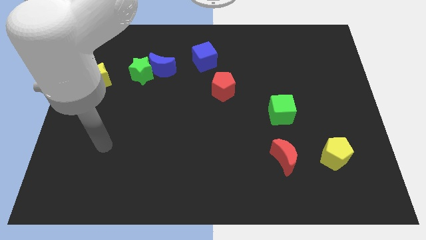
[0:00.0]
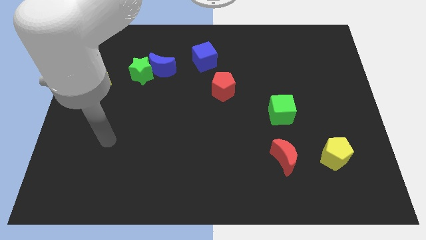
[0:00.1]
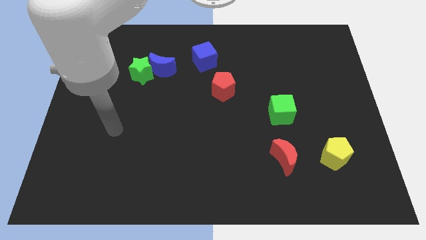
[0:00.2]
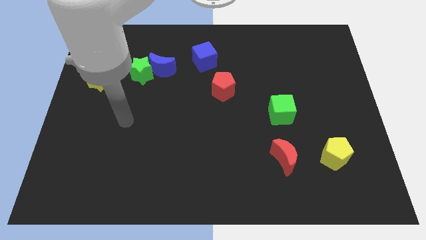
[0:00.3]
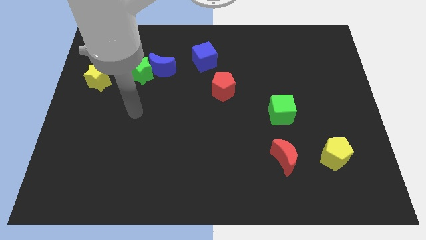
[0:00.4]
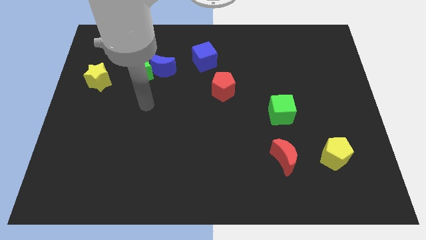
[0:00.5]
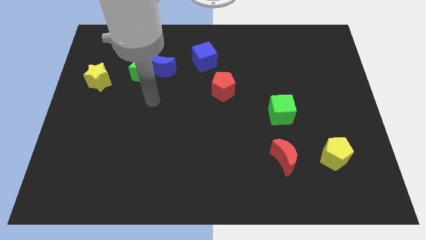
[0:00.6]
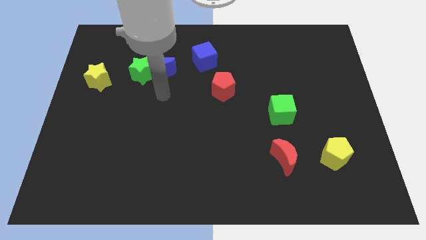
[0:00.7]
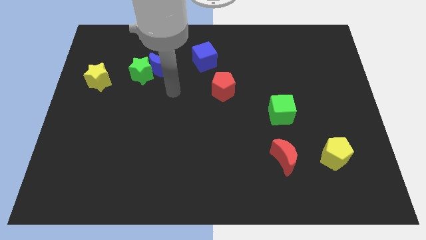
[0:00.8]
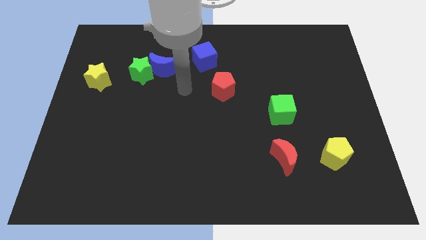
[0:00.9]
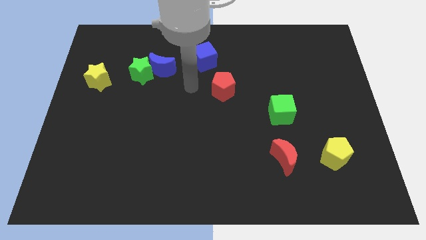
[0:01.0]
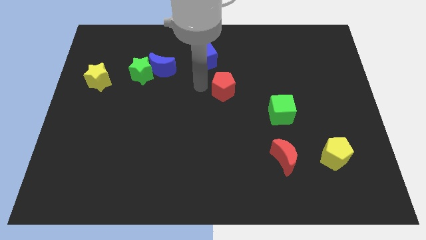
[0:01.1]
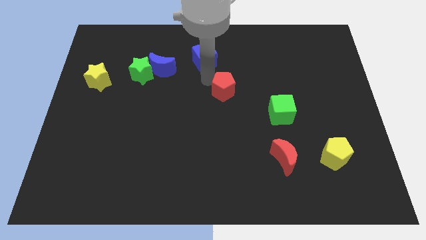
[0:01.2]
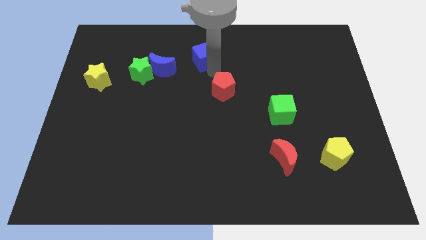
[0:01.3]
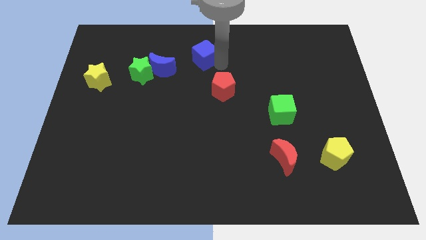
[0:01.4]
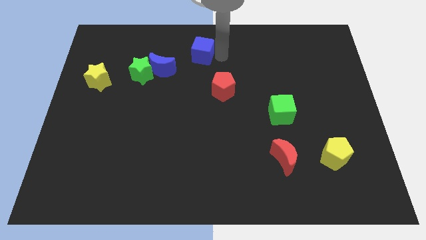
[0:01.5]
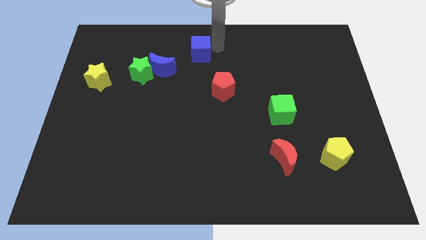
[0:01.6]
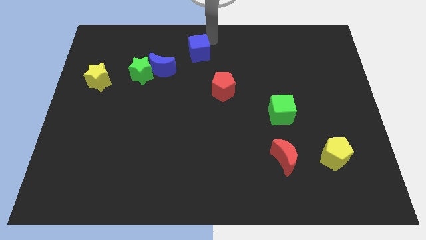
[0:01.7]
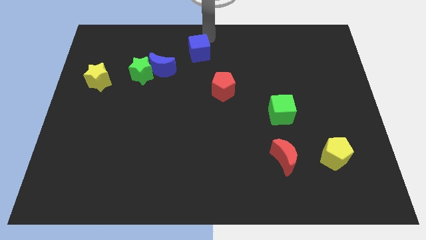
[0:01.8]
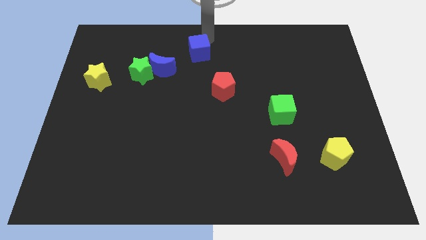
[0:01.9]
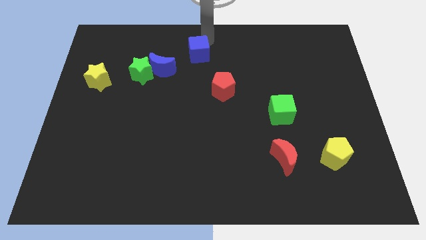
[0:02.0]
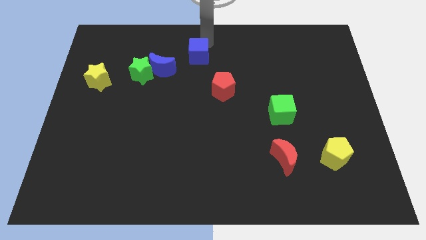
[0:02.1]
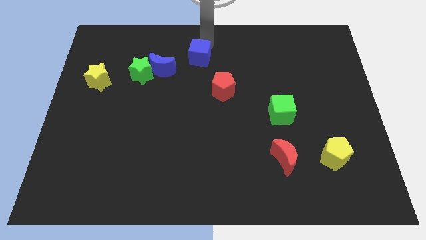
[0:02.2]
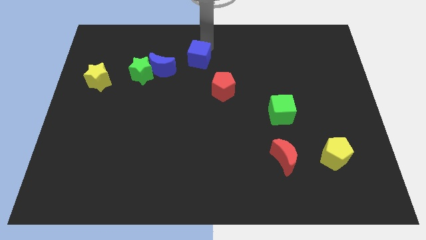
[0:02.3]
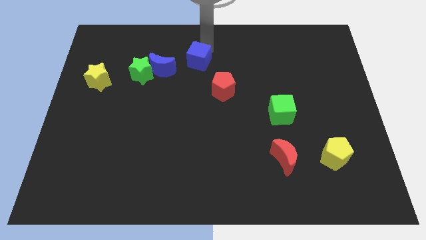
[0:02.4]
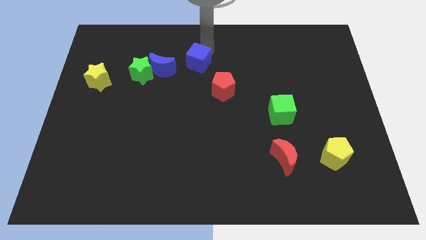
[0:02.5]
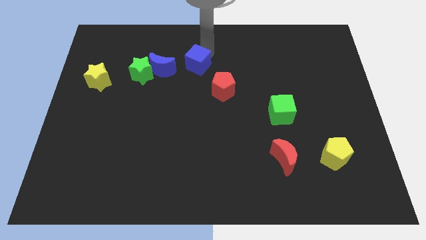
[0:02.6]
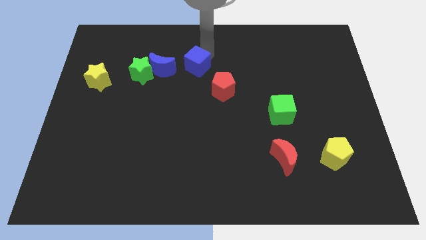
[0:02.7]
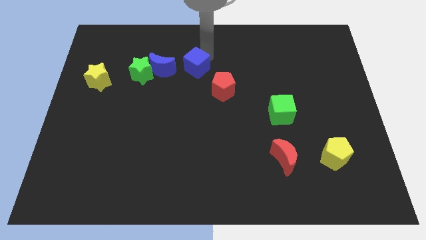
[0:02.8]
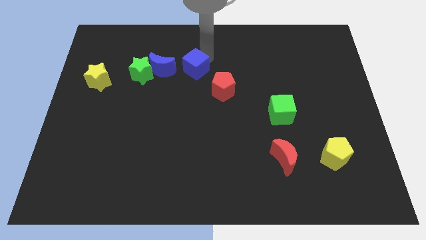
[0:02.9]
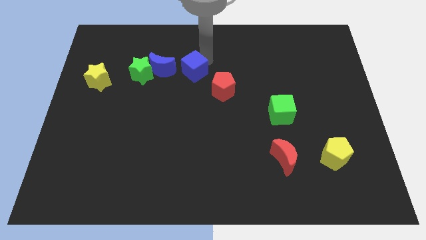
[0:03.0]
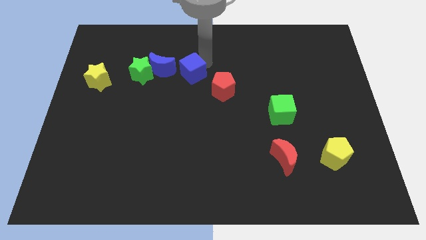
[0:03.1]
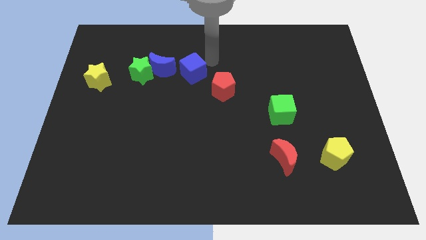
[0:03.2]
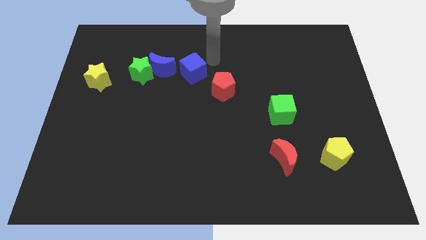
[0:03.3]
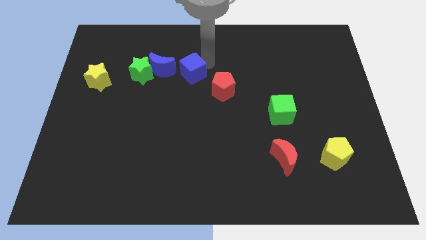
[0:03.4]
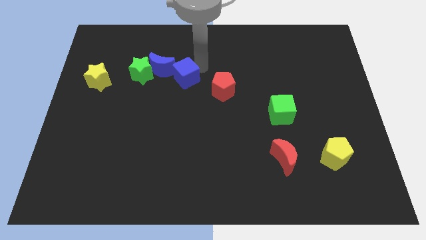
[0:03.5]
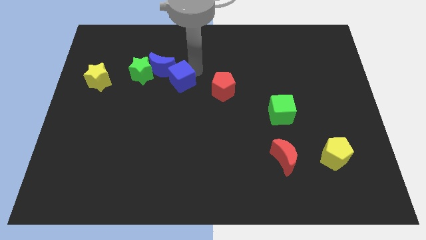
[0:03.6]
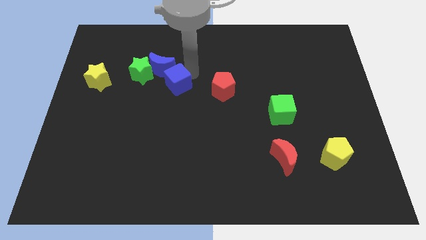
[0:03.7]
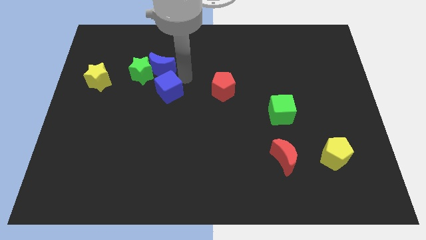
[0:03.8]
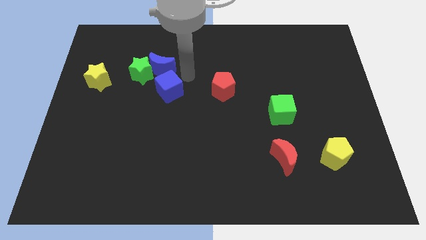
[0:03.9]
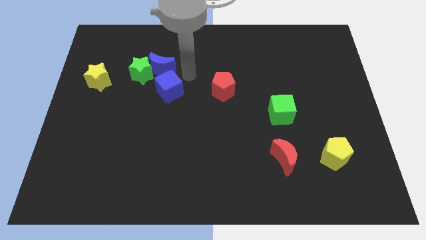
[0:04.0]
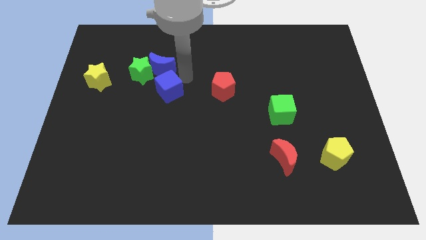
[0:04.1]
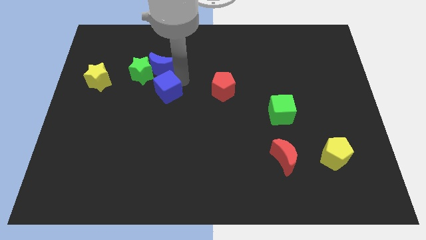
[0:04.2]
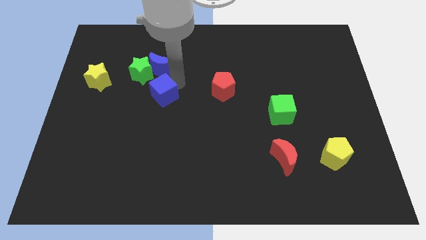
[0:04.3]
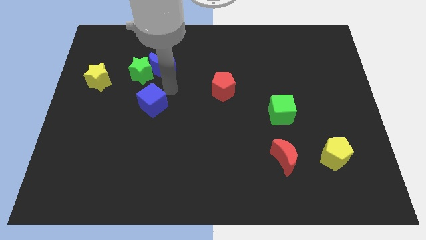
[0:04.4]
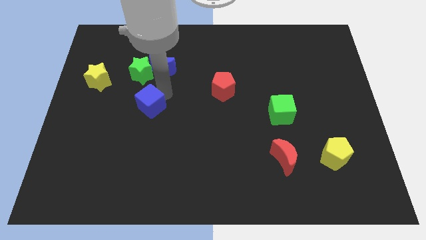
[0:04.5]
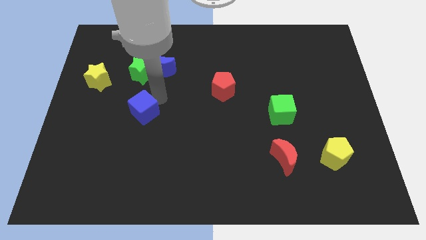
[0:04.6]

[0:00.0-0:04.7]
slide the blue cube down and left

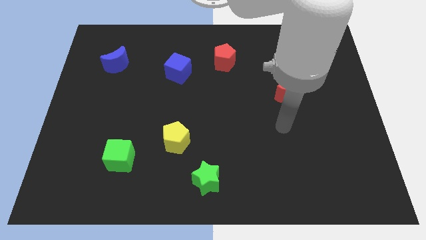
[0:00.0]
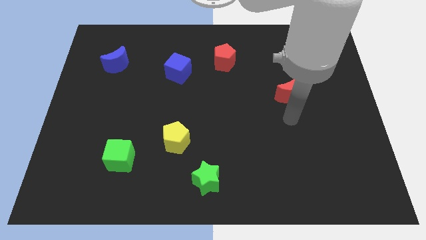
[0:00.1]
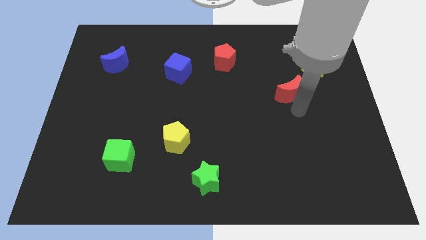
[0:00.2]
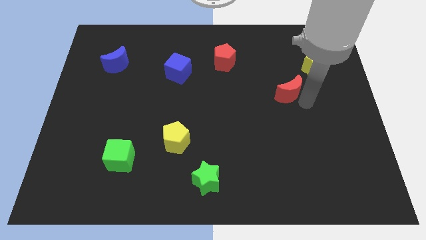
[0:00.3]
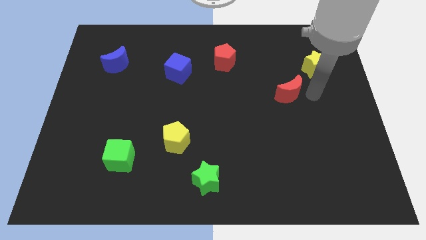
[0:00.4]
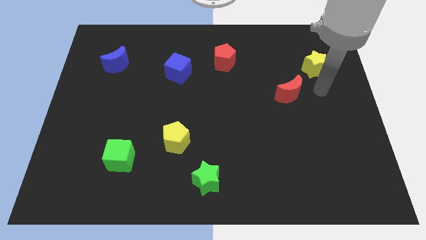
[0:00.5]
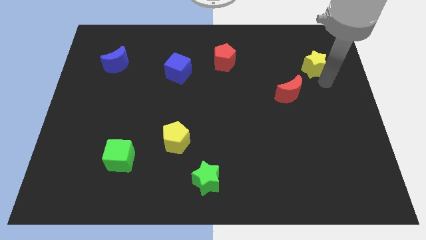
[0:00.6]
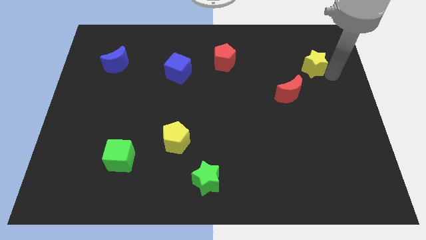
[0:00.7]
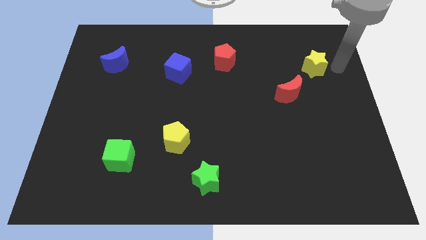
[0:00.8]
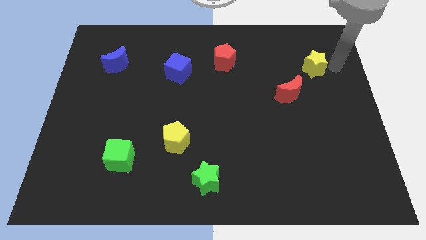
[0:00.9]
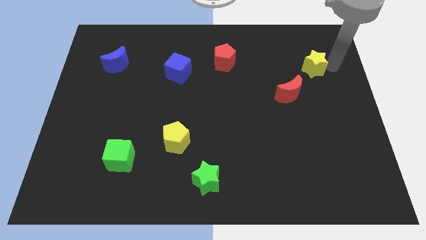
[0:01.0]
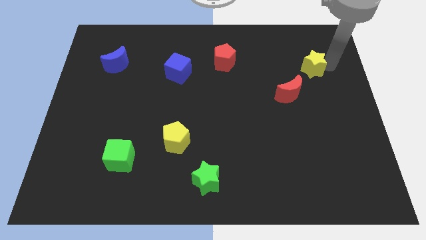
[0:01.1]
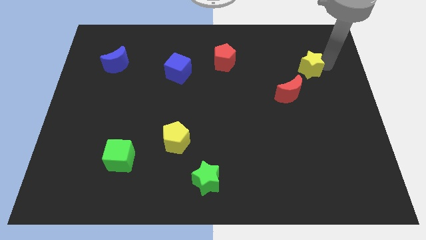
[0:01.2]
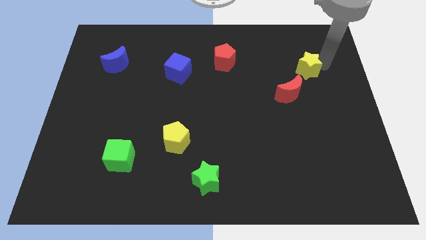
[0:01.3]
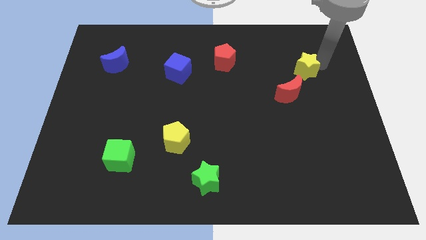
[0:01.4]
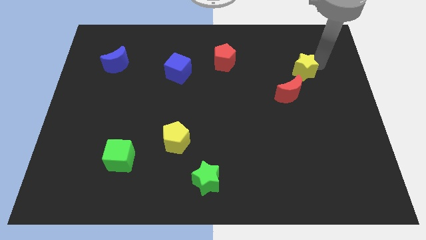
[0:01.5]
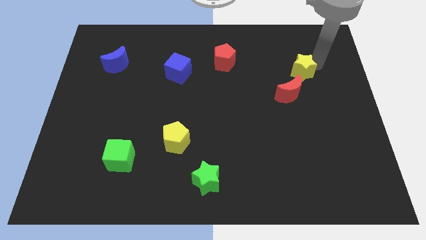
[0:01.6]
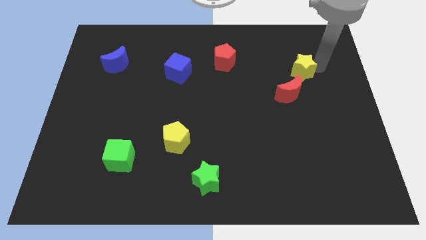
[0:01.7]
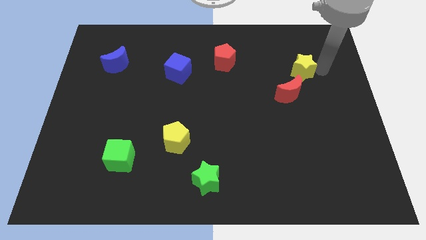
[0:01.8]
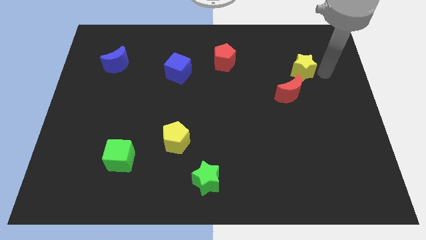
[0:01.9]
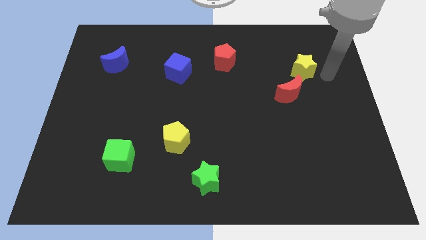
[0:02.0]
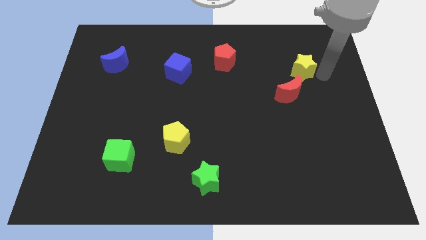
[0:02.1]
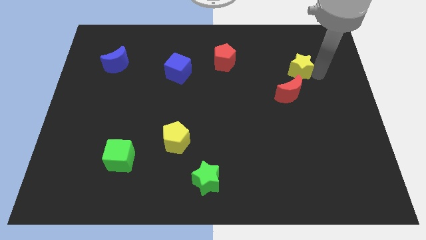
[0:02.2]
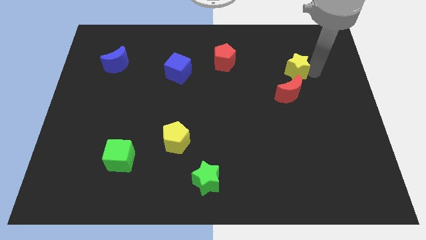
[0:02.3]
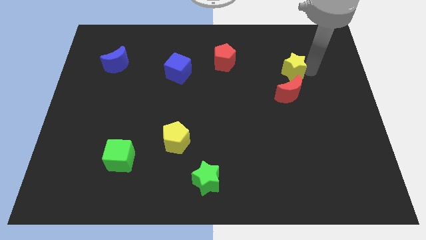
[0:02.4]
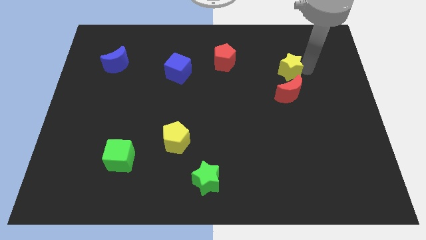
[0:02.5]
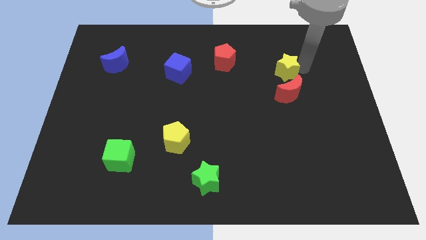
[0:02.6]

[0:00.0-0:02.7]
push the yellow star a little bit left

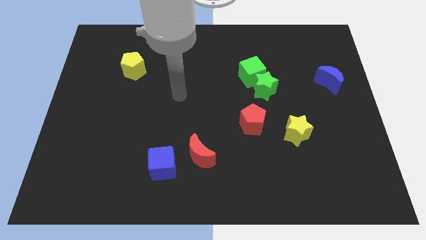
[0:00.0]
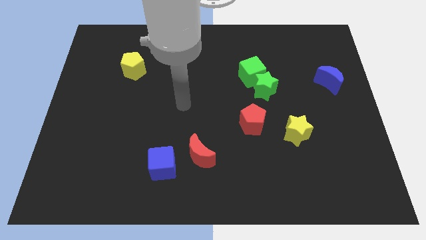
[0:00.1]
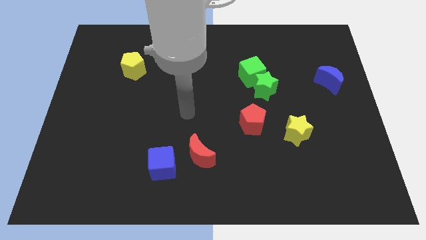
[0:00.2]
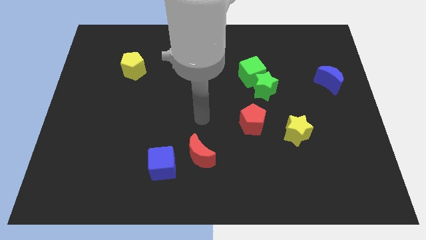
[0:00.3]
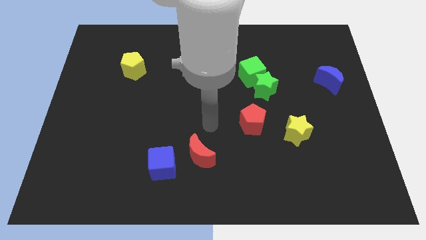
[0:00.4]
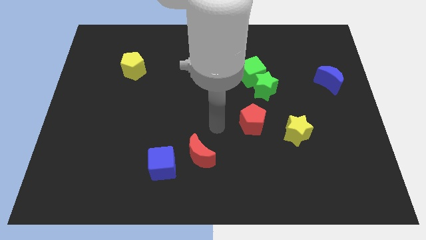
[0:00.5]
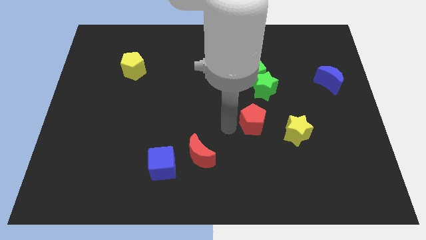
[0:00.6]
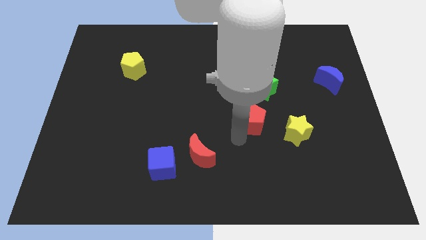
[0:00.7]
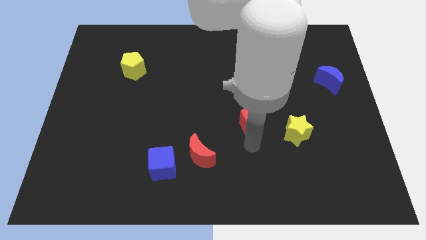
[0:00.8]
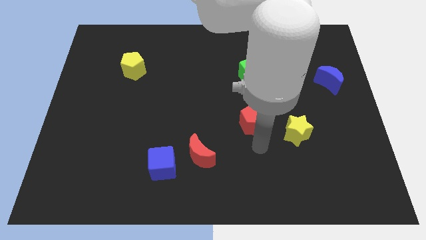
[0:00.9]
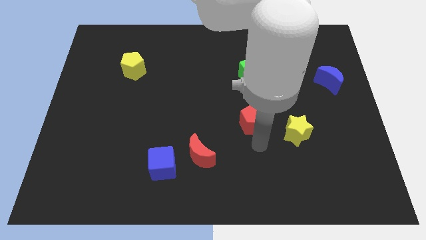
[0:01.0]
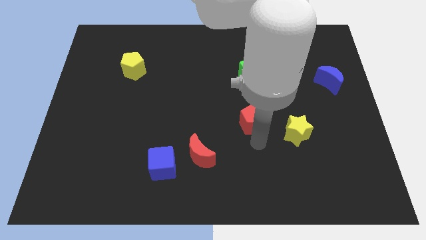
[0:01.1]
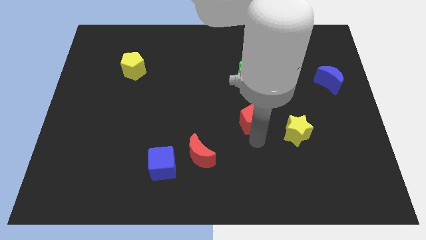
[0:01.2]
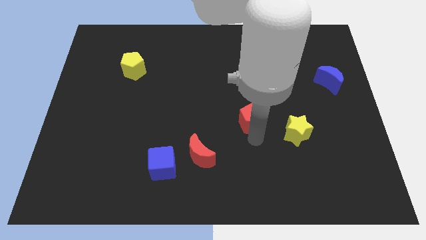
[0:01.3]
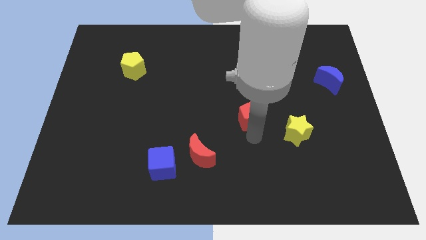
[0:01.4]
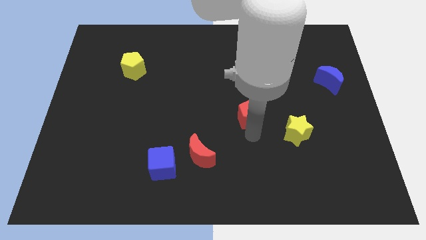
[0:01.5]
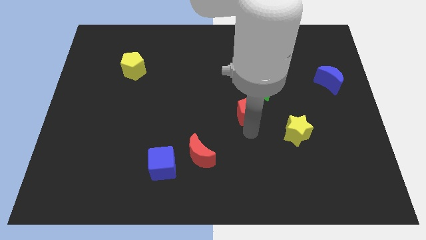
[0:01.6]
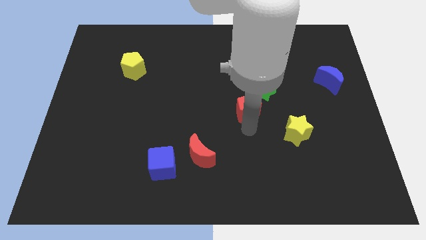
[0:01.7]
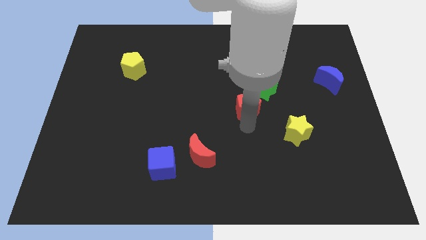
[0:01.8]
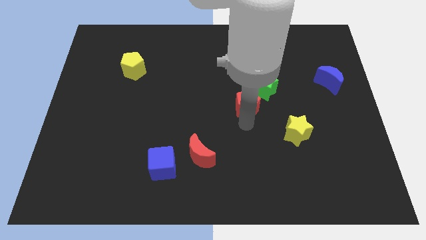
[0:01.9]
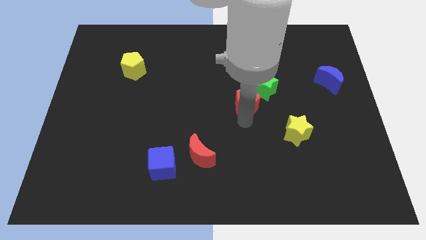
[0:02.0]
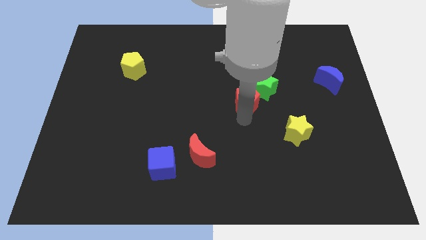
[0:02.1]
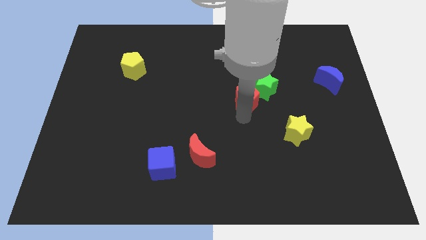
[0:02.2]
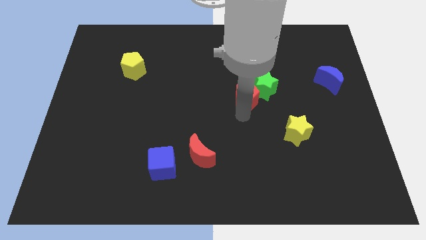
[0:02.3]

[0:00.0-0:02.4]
push the red pentagon up a little
